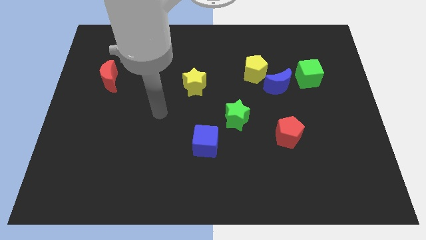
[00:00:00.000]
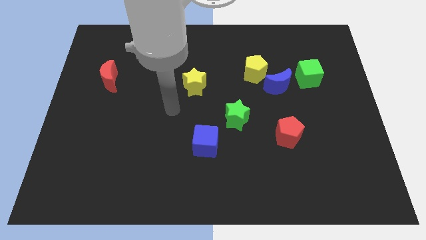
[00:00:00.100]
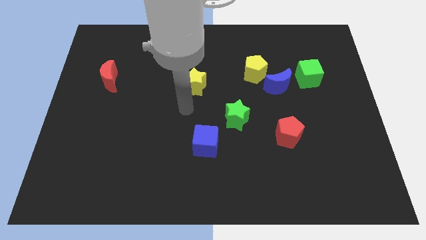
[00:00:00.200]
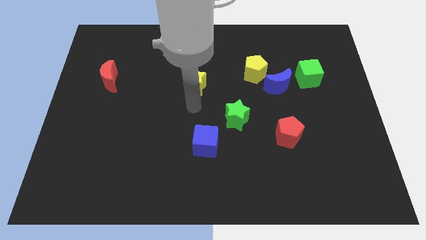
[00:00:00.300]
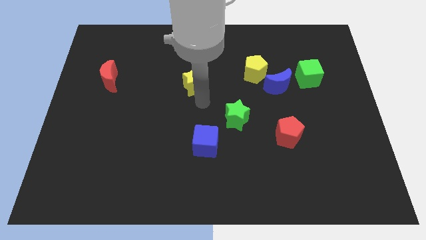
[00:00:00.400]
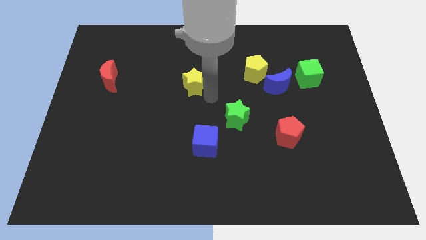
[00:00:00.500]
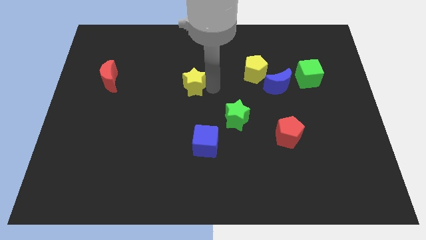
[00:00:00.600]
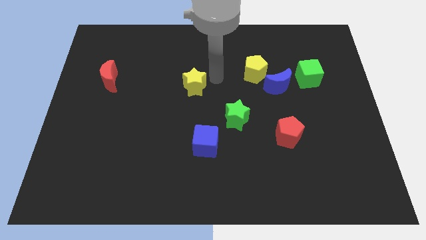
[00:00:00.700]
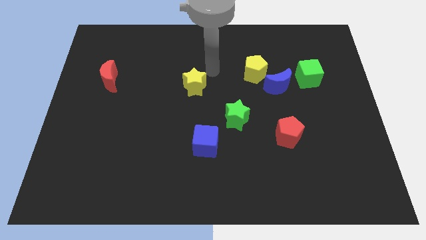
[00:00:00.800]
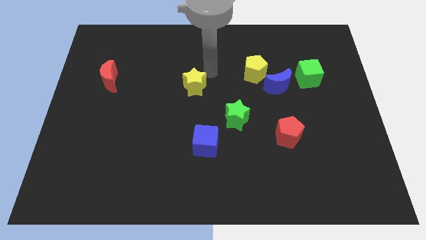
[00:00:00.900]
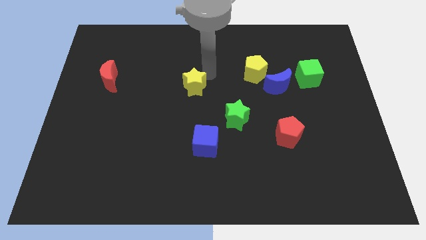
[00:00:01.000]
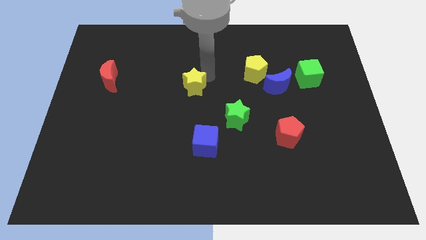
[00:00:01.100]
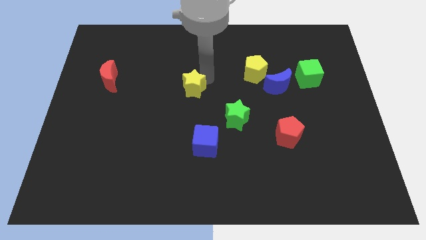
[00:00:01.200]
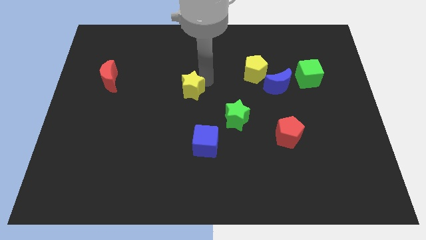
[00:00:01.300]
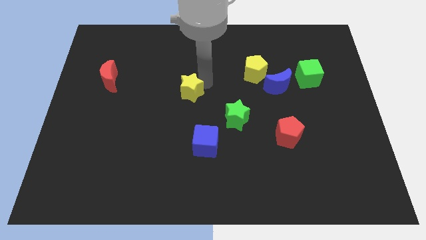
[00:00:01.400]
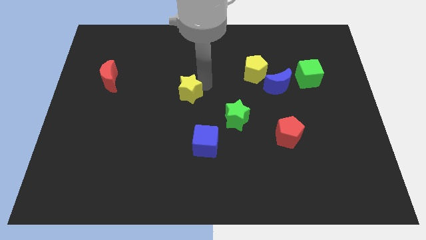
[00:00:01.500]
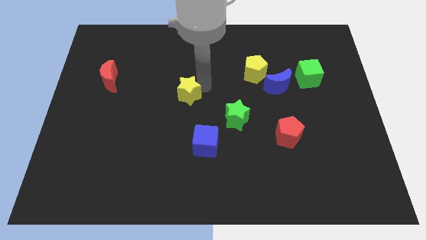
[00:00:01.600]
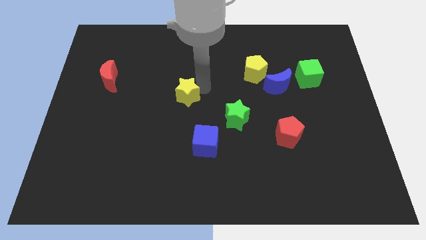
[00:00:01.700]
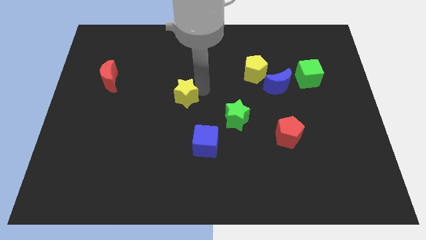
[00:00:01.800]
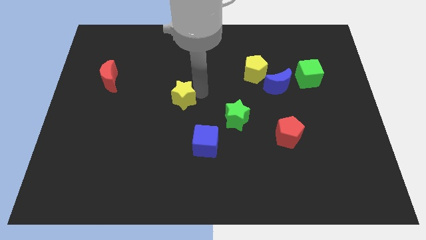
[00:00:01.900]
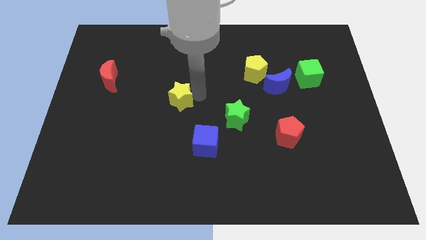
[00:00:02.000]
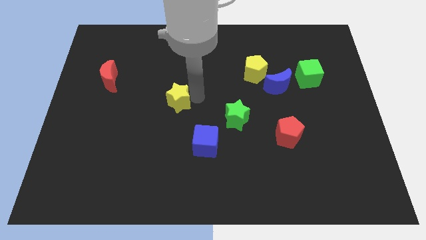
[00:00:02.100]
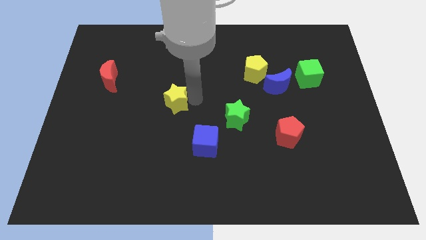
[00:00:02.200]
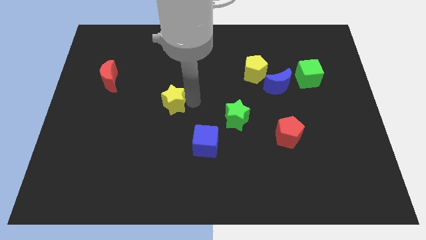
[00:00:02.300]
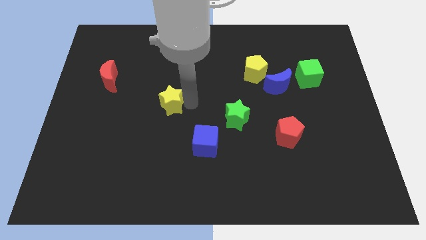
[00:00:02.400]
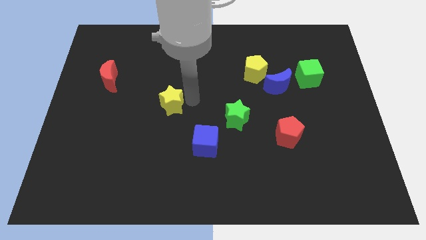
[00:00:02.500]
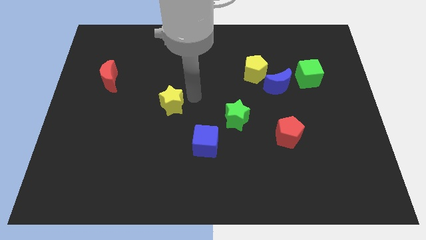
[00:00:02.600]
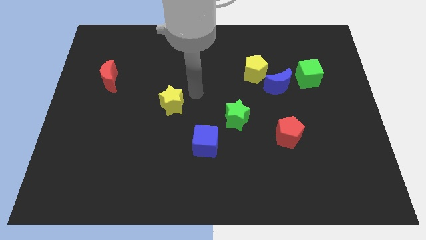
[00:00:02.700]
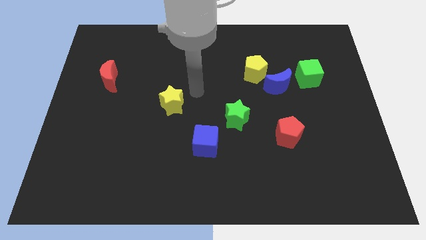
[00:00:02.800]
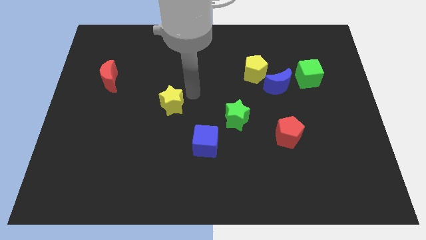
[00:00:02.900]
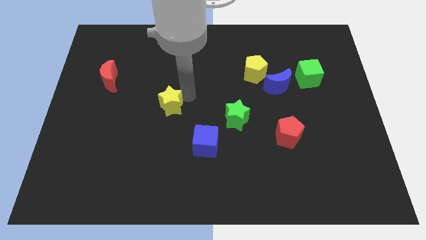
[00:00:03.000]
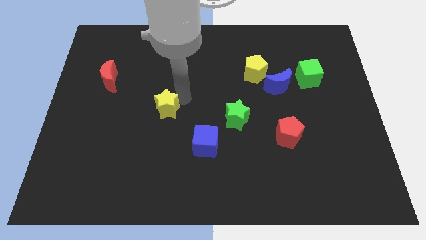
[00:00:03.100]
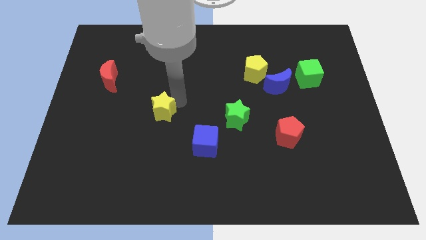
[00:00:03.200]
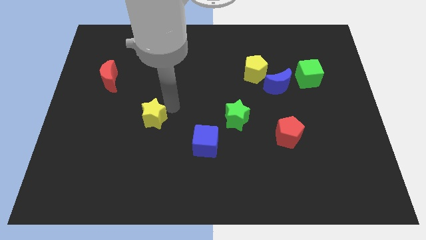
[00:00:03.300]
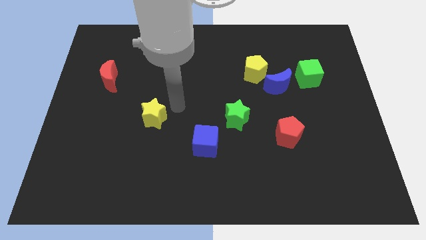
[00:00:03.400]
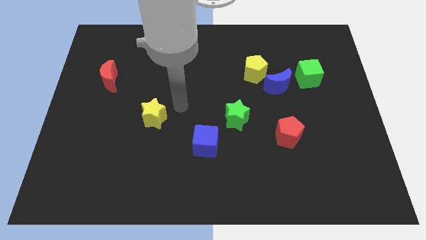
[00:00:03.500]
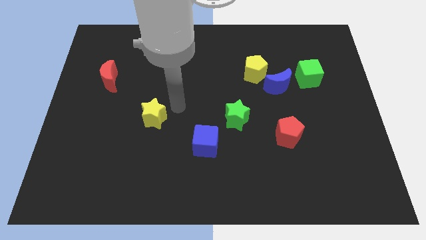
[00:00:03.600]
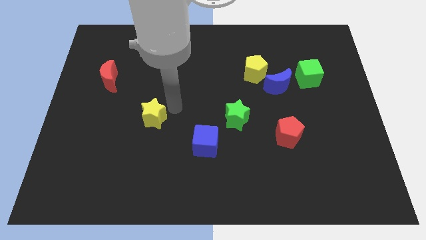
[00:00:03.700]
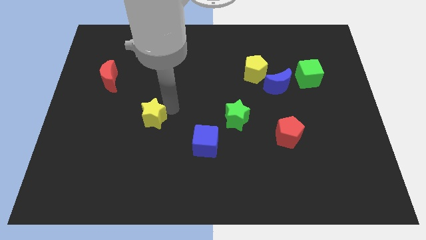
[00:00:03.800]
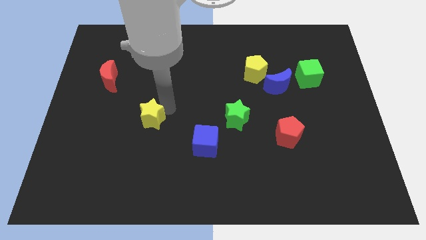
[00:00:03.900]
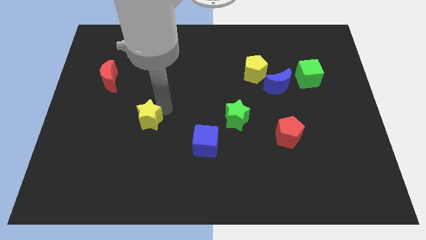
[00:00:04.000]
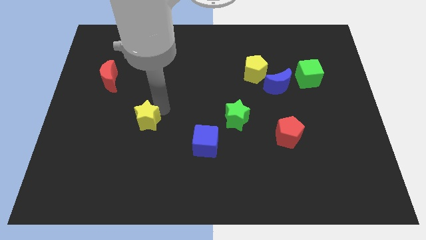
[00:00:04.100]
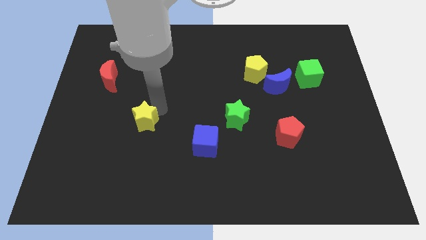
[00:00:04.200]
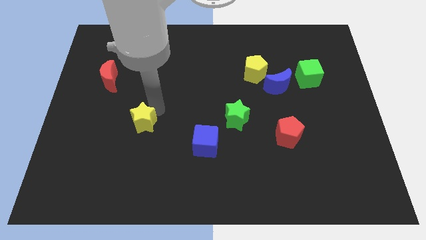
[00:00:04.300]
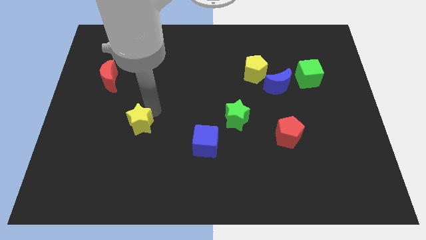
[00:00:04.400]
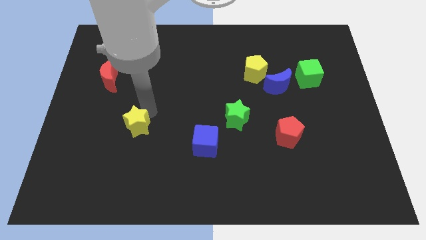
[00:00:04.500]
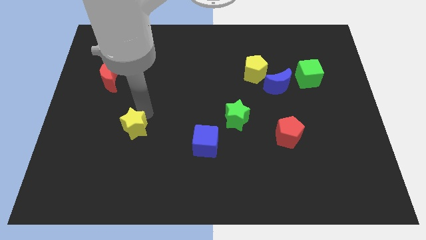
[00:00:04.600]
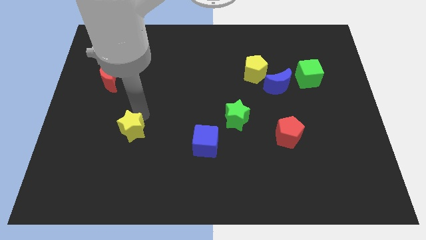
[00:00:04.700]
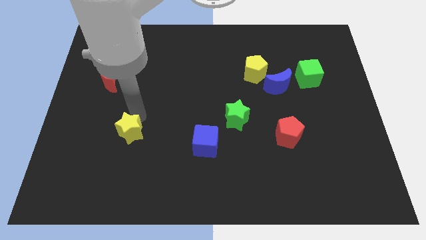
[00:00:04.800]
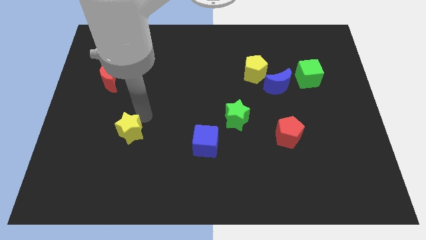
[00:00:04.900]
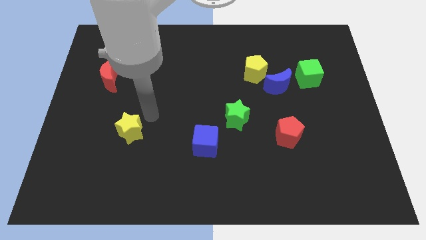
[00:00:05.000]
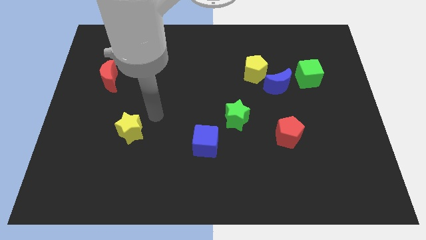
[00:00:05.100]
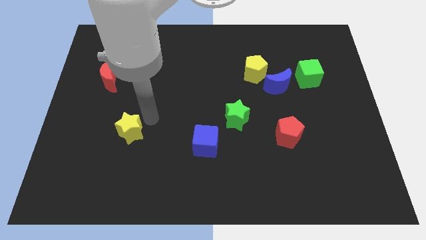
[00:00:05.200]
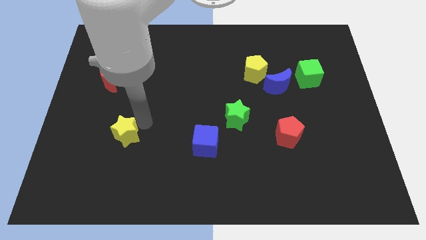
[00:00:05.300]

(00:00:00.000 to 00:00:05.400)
move the yellow star downwards and to the left

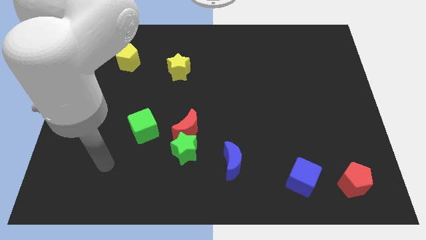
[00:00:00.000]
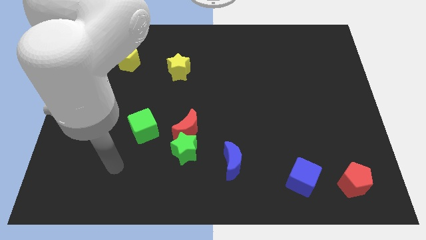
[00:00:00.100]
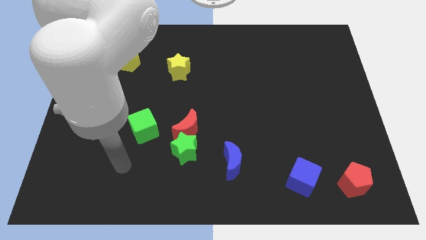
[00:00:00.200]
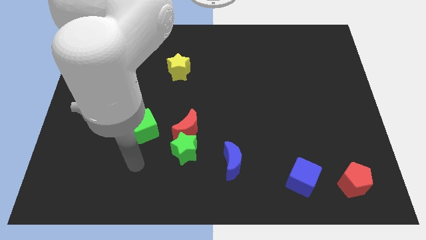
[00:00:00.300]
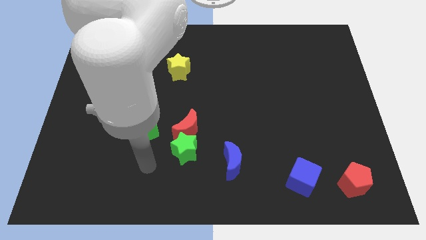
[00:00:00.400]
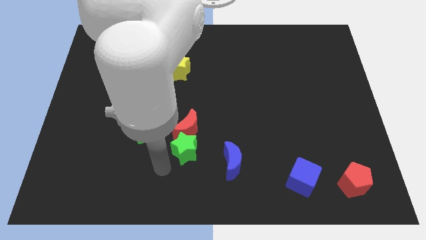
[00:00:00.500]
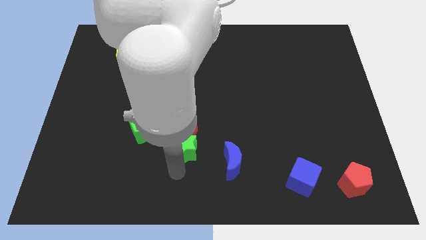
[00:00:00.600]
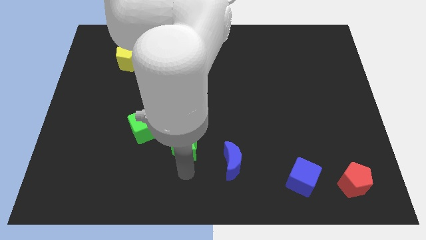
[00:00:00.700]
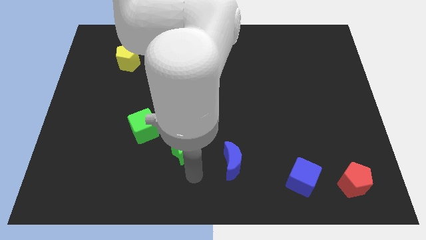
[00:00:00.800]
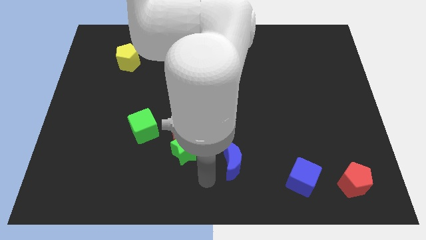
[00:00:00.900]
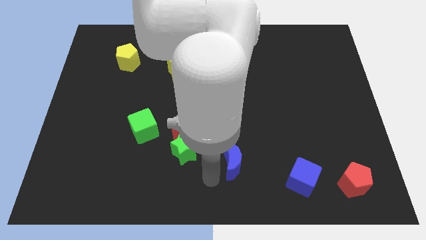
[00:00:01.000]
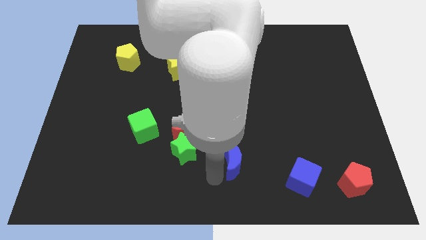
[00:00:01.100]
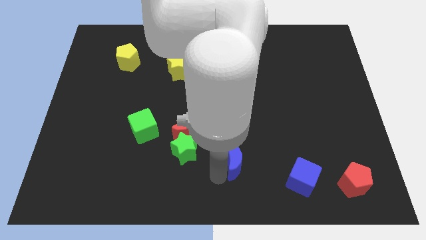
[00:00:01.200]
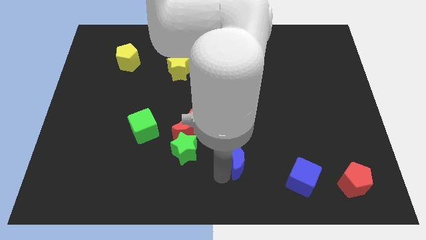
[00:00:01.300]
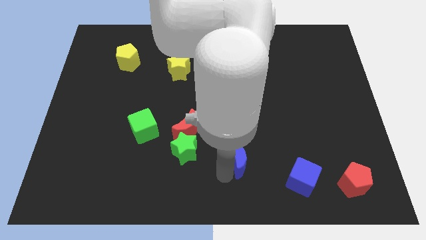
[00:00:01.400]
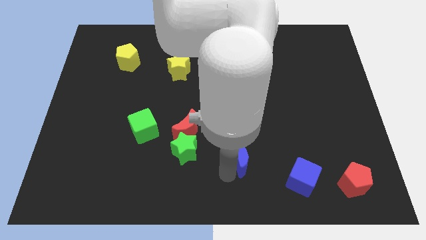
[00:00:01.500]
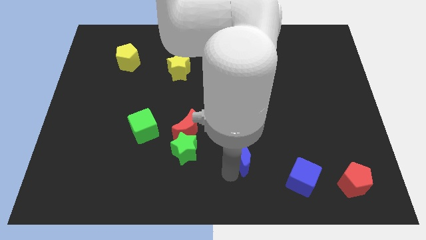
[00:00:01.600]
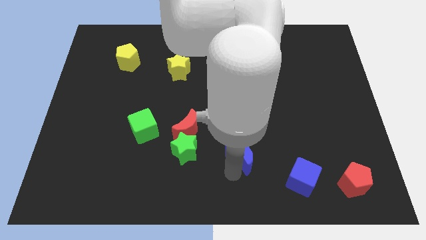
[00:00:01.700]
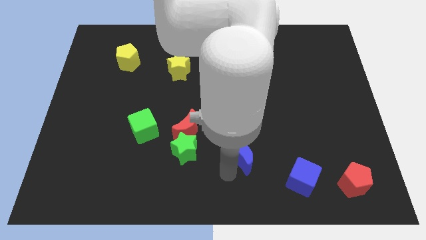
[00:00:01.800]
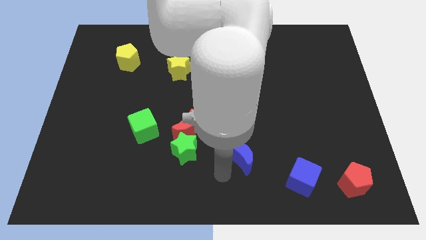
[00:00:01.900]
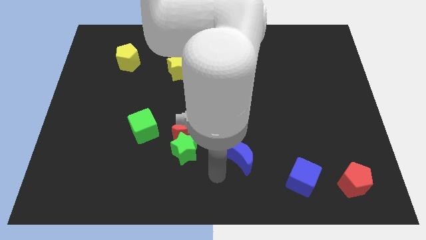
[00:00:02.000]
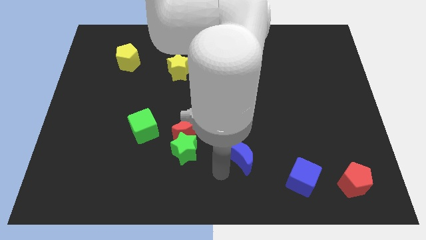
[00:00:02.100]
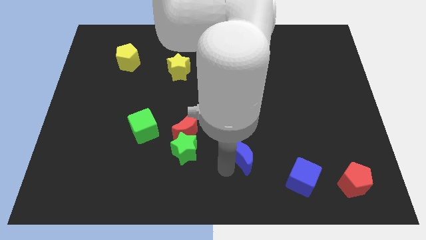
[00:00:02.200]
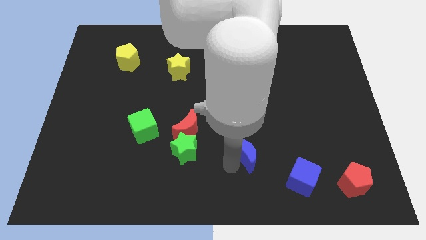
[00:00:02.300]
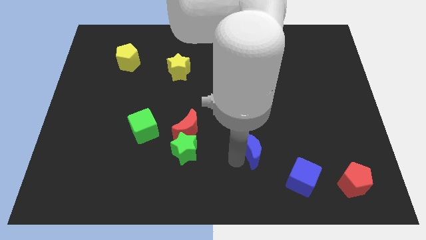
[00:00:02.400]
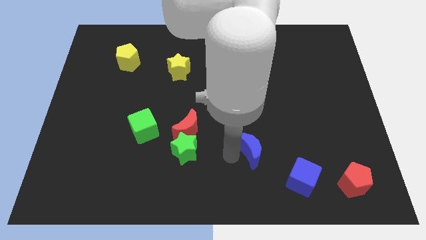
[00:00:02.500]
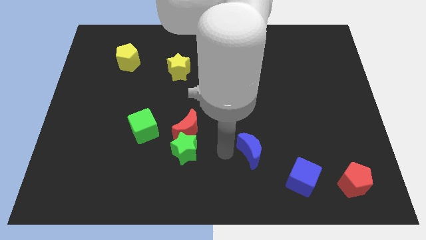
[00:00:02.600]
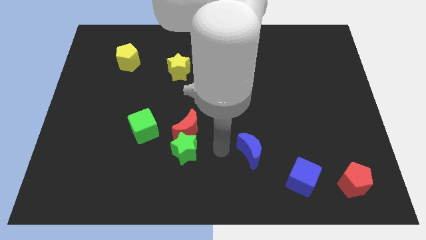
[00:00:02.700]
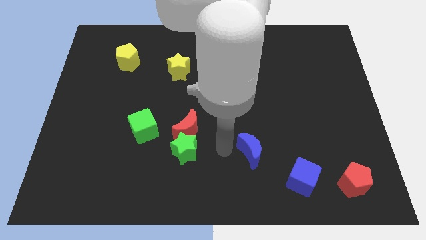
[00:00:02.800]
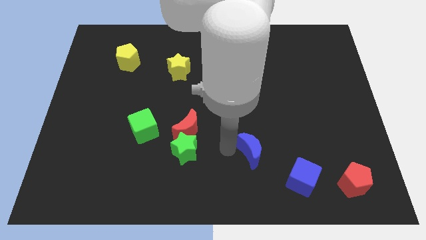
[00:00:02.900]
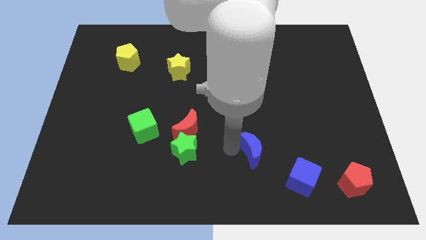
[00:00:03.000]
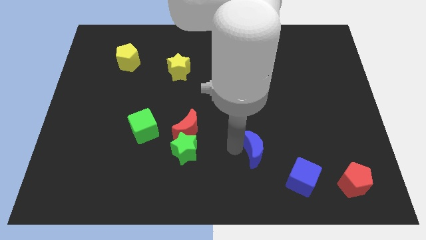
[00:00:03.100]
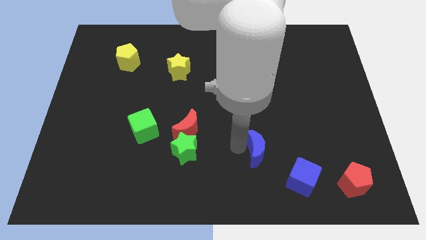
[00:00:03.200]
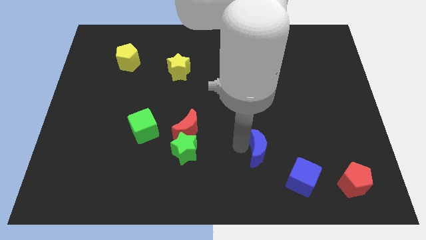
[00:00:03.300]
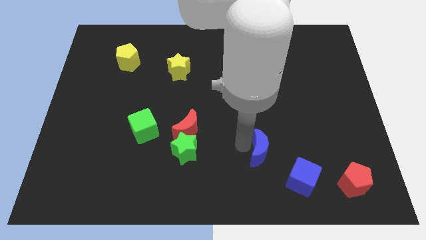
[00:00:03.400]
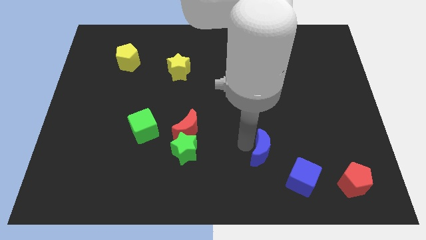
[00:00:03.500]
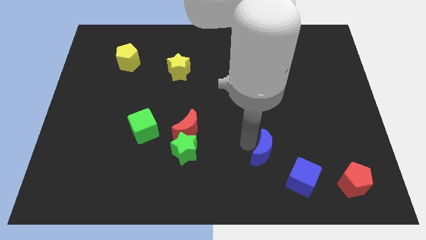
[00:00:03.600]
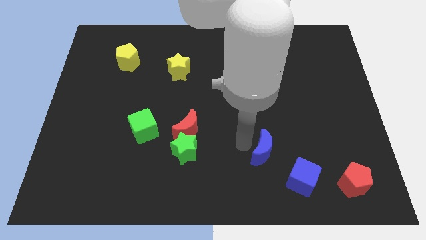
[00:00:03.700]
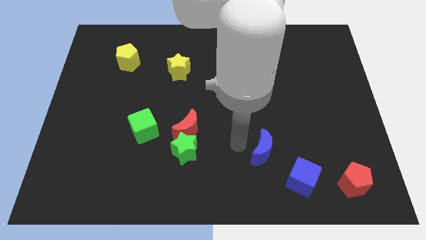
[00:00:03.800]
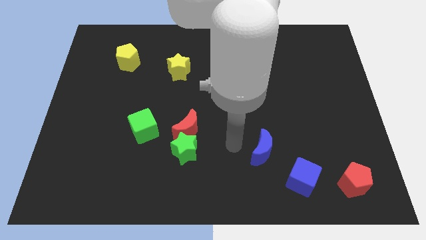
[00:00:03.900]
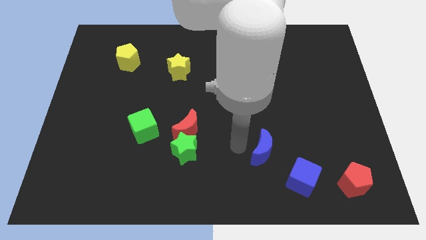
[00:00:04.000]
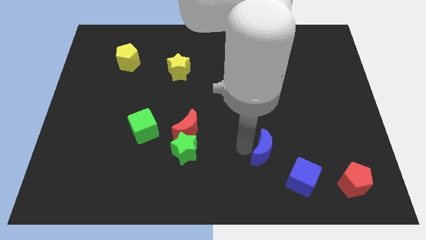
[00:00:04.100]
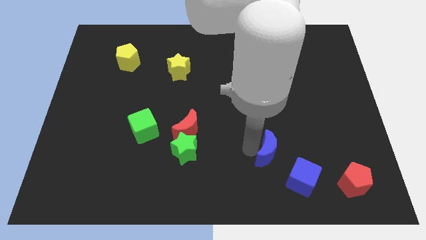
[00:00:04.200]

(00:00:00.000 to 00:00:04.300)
slightly push the blue moon to the right
